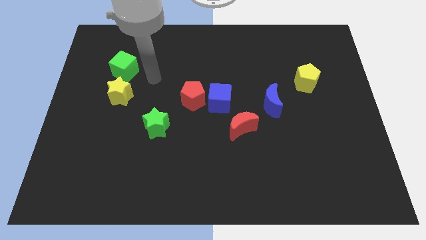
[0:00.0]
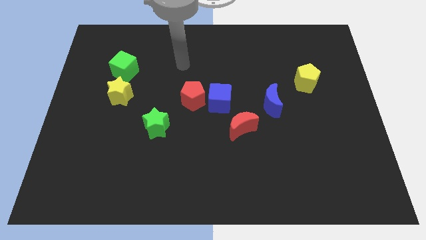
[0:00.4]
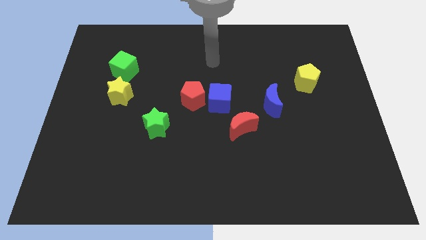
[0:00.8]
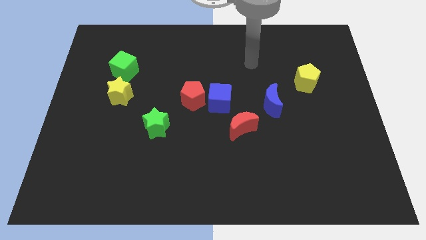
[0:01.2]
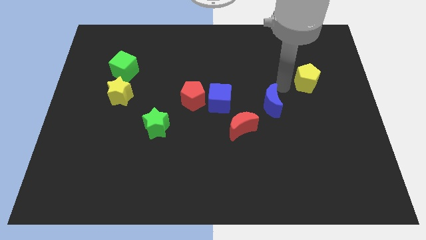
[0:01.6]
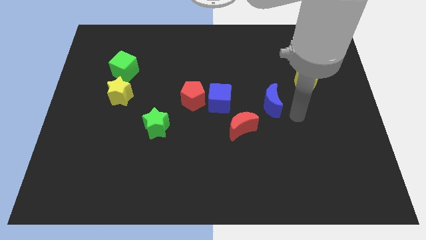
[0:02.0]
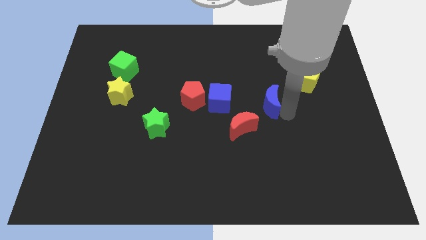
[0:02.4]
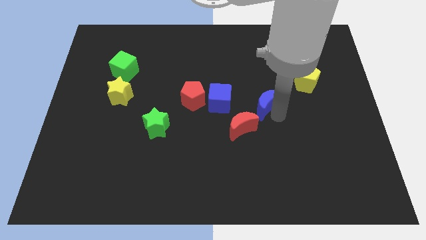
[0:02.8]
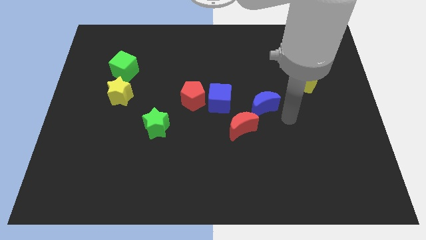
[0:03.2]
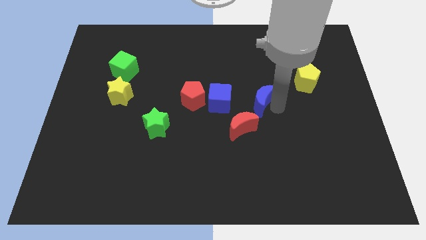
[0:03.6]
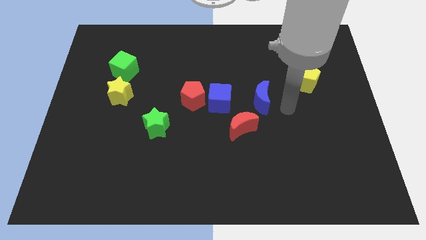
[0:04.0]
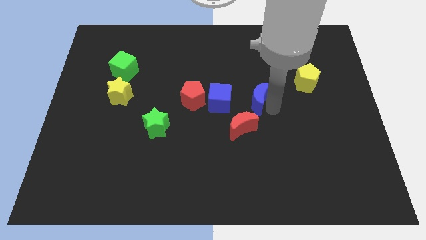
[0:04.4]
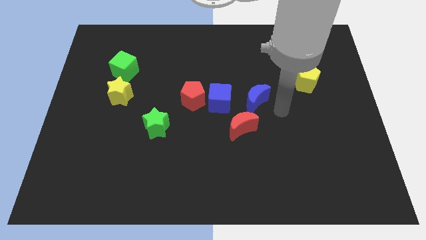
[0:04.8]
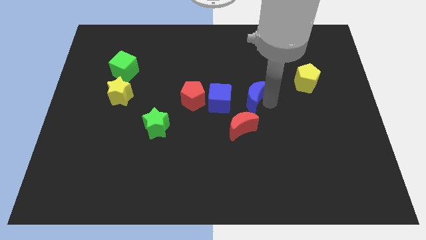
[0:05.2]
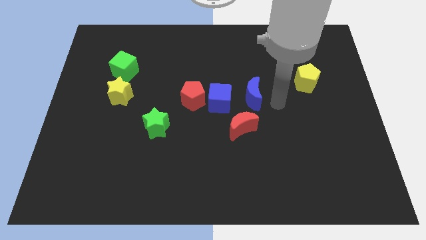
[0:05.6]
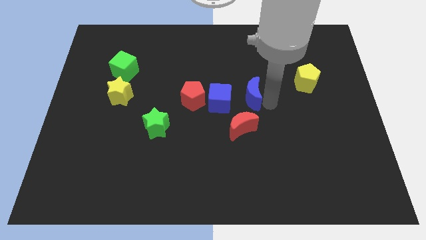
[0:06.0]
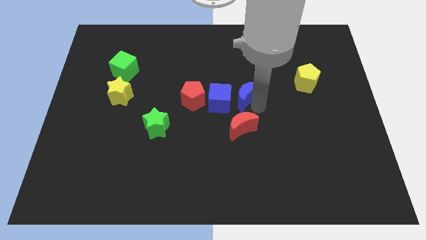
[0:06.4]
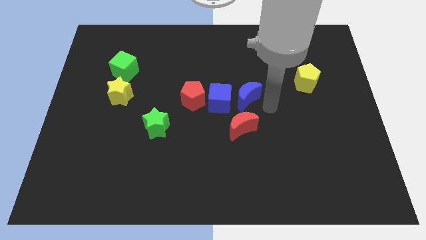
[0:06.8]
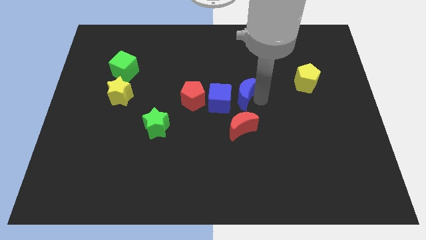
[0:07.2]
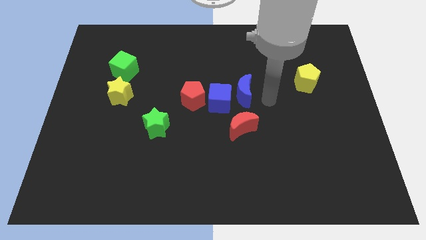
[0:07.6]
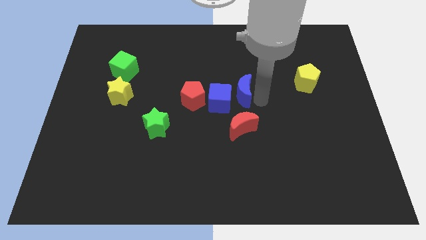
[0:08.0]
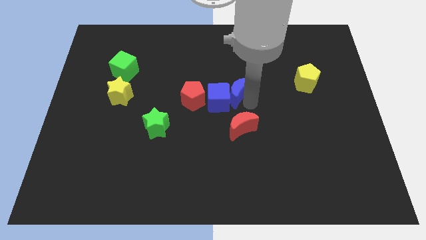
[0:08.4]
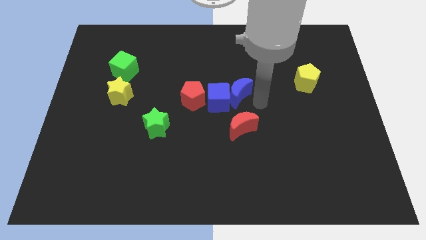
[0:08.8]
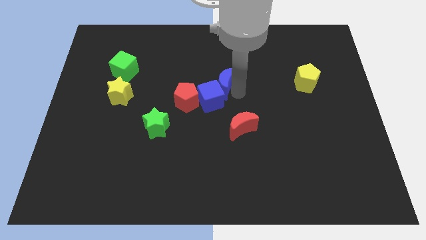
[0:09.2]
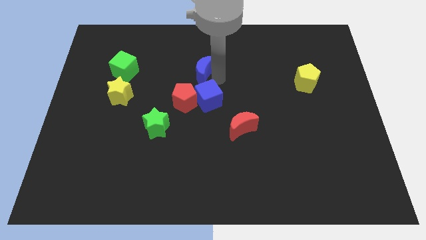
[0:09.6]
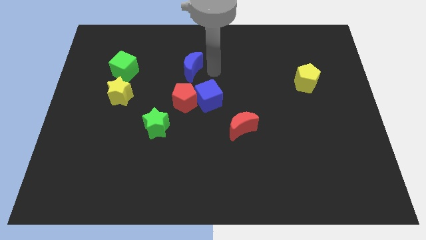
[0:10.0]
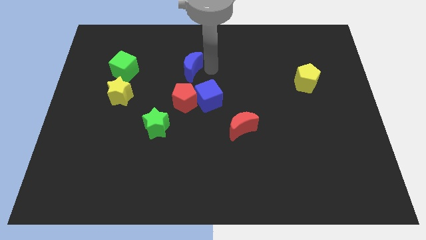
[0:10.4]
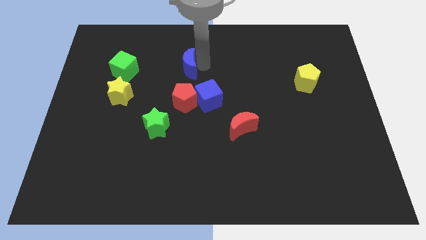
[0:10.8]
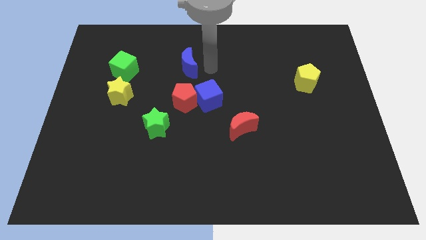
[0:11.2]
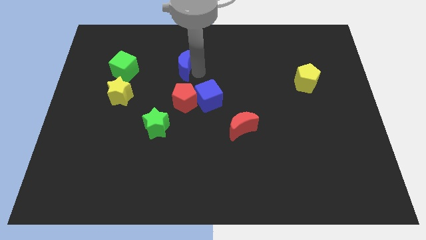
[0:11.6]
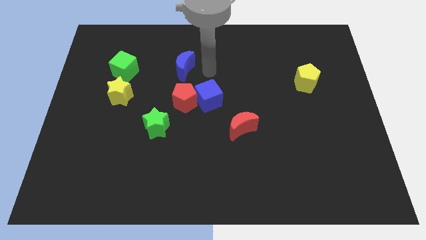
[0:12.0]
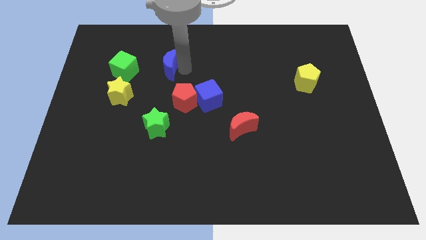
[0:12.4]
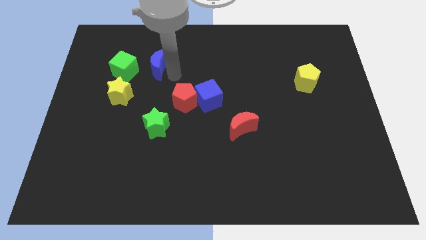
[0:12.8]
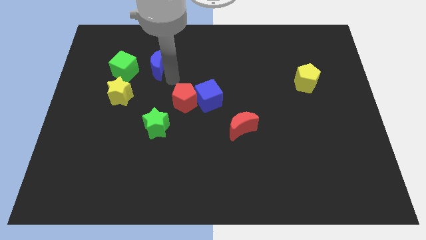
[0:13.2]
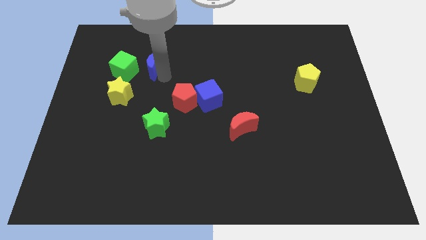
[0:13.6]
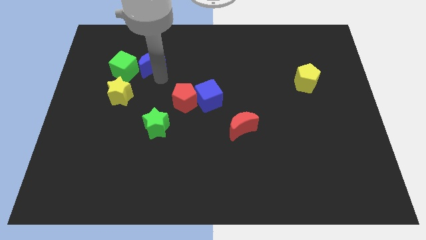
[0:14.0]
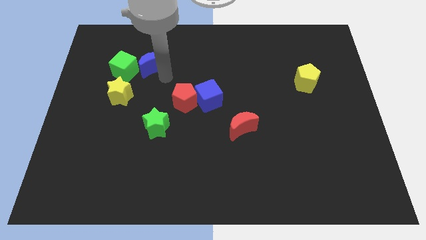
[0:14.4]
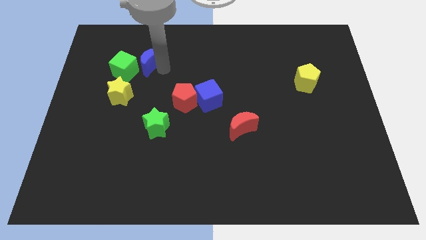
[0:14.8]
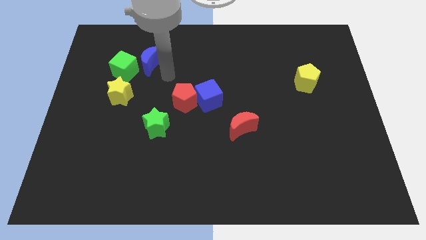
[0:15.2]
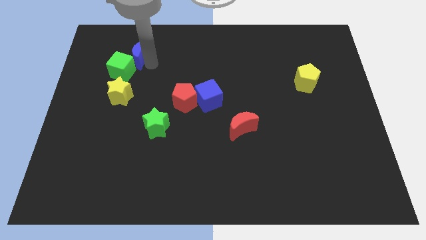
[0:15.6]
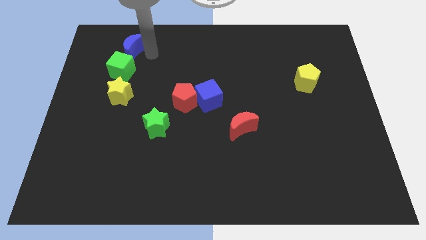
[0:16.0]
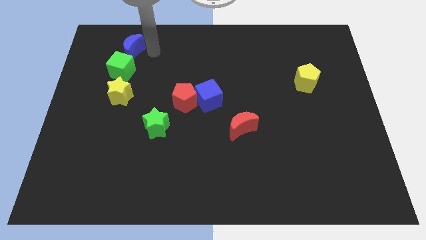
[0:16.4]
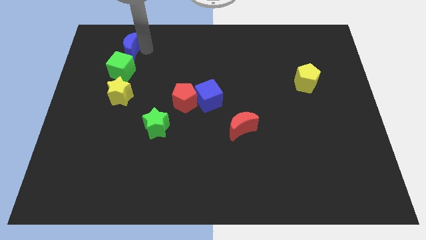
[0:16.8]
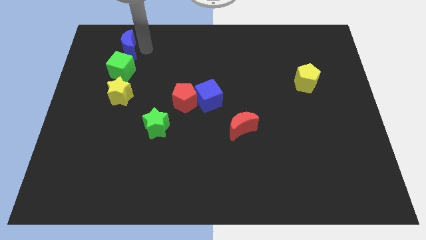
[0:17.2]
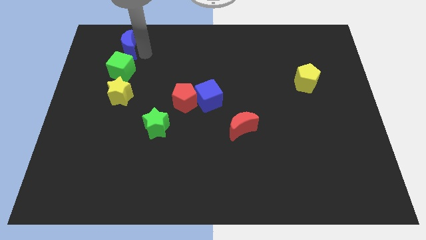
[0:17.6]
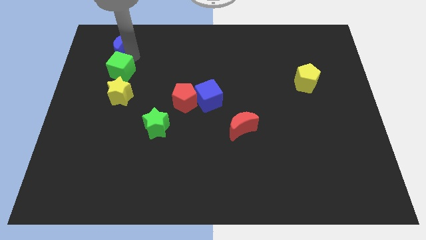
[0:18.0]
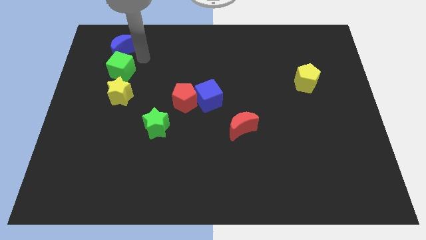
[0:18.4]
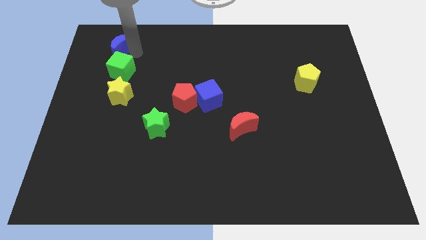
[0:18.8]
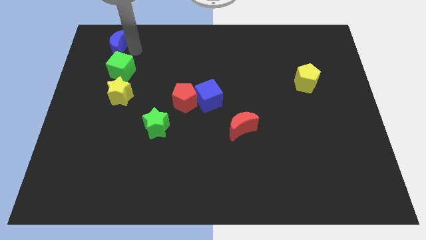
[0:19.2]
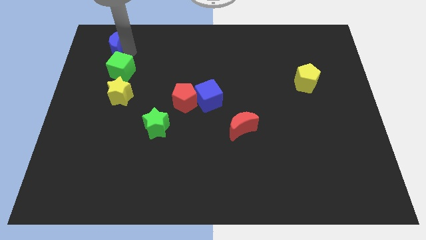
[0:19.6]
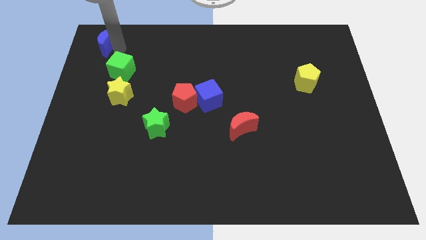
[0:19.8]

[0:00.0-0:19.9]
push the blue moon to the upper left corner

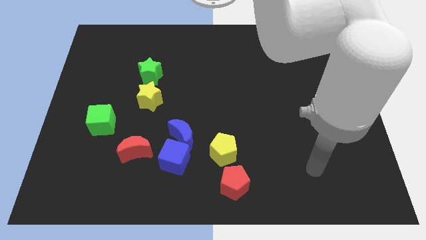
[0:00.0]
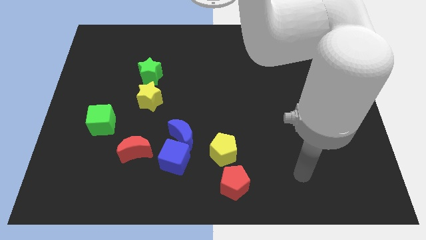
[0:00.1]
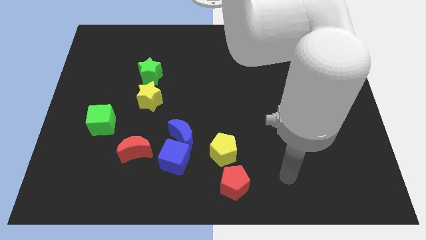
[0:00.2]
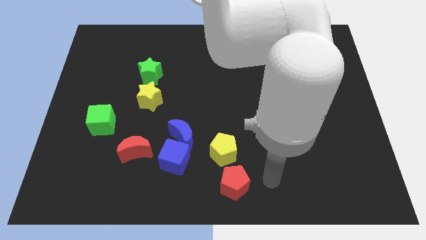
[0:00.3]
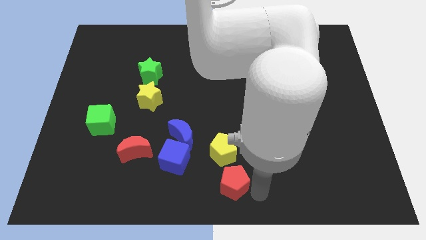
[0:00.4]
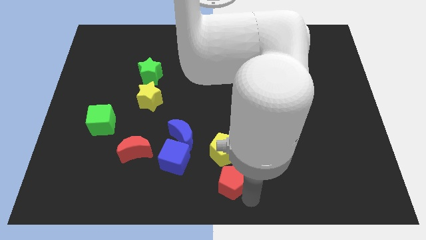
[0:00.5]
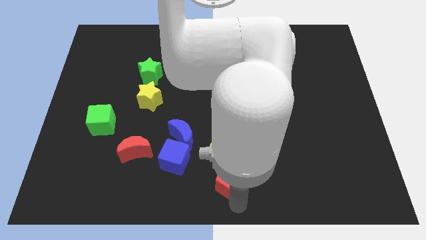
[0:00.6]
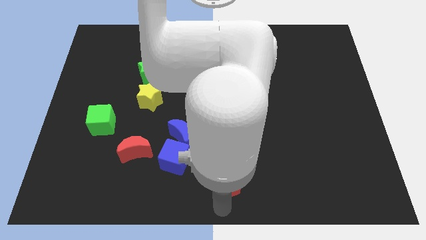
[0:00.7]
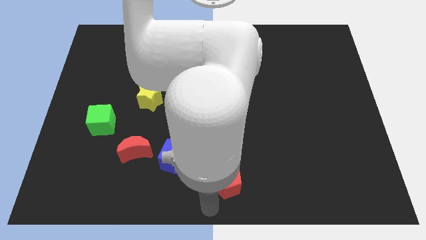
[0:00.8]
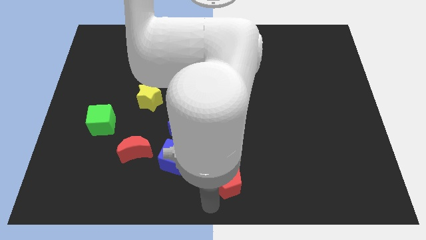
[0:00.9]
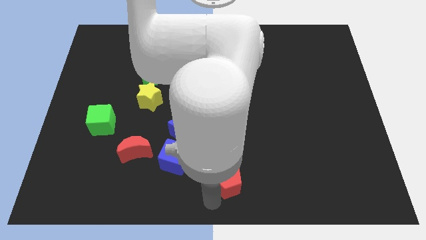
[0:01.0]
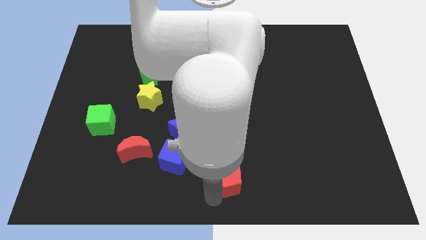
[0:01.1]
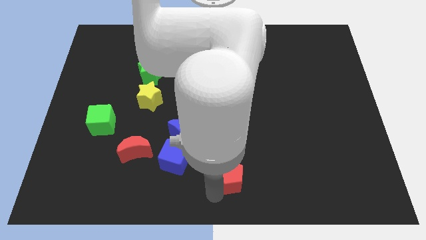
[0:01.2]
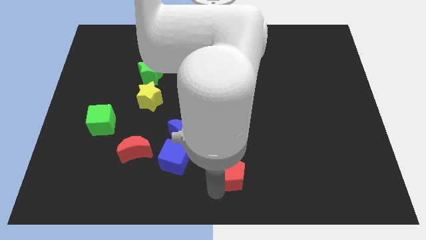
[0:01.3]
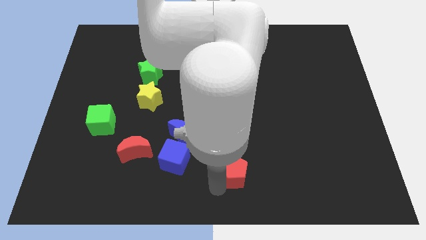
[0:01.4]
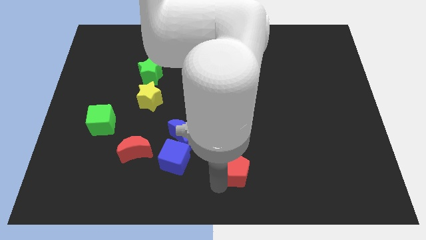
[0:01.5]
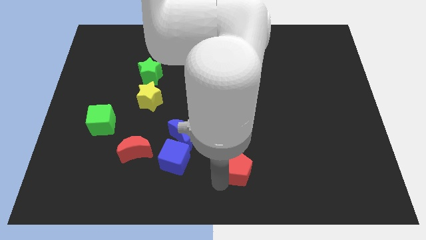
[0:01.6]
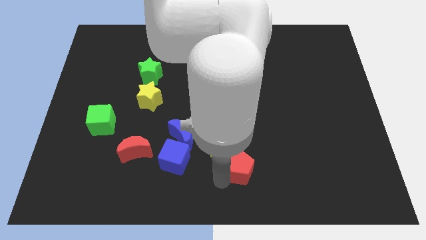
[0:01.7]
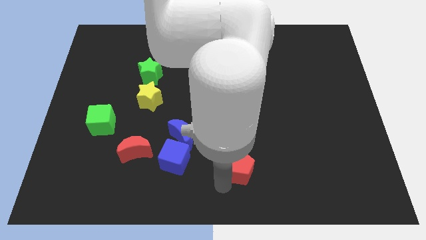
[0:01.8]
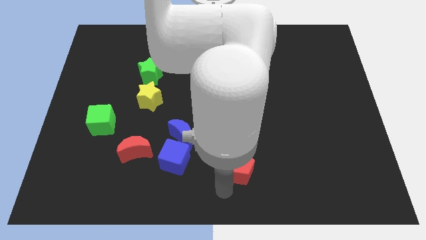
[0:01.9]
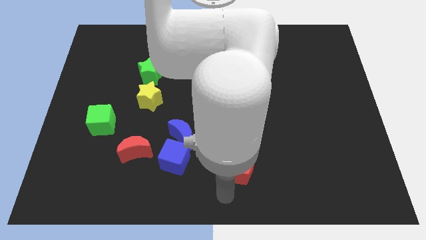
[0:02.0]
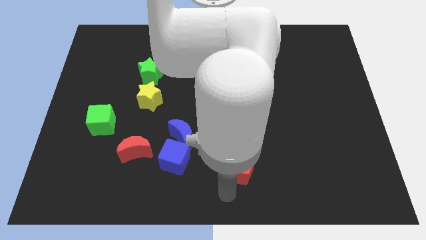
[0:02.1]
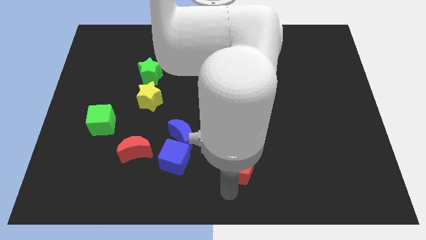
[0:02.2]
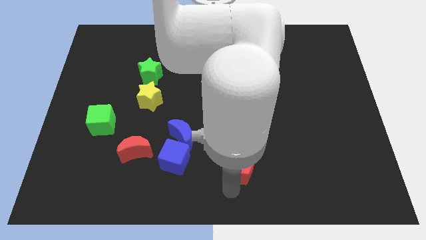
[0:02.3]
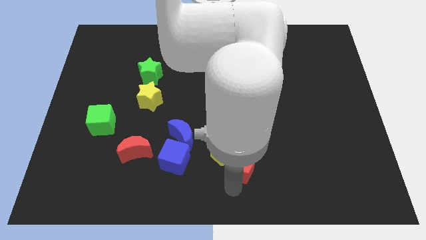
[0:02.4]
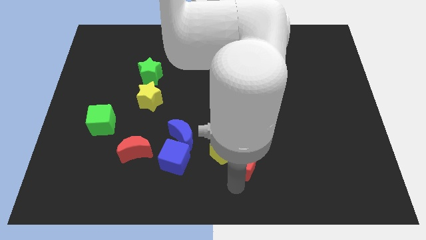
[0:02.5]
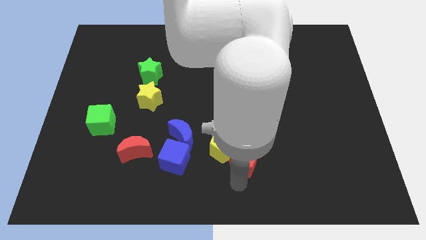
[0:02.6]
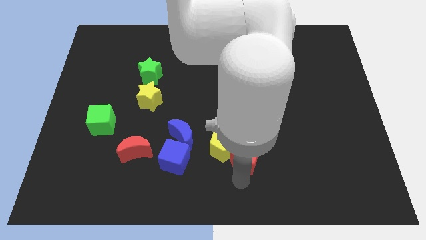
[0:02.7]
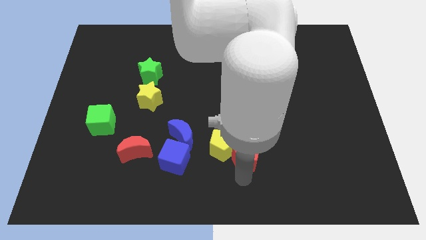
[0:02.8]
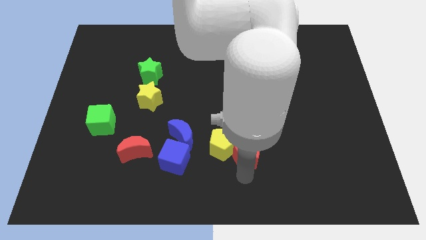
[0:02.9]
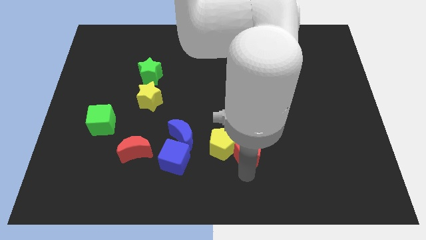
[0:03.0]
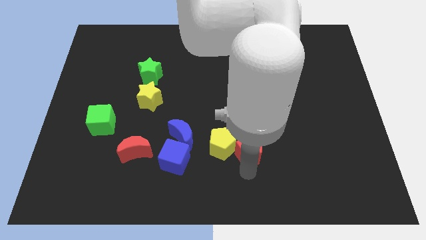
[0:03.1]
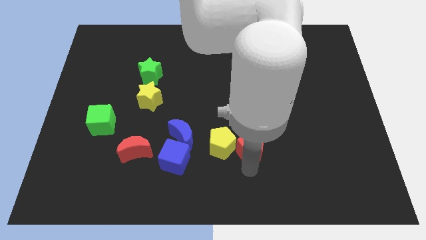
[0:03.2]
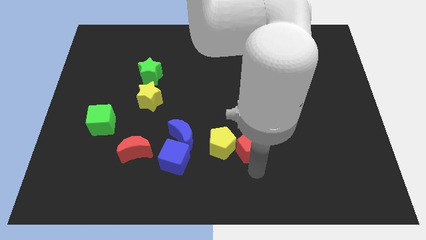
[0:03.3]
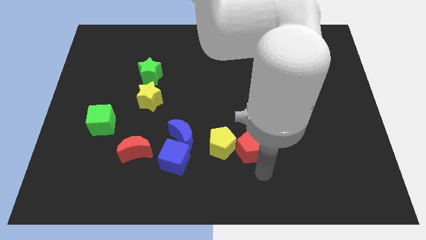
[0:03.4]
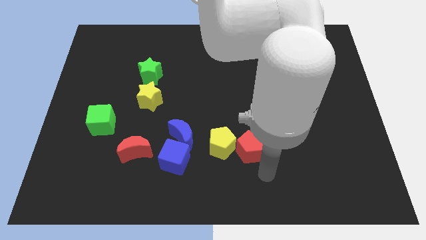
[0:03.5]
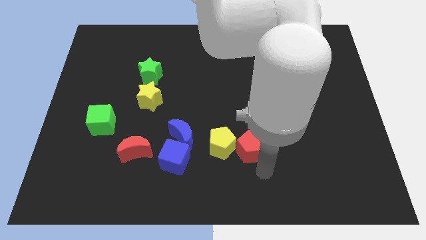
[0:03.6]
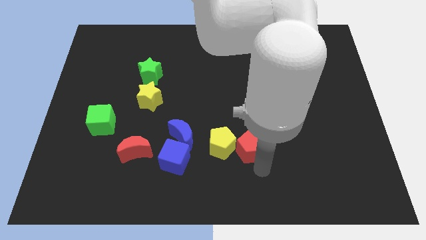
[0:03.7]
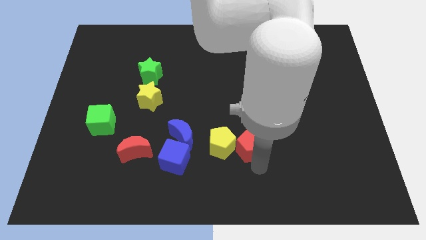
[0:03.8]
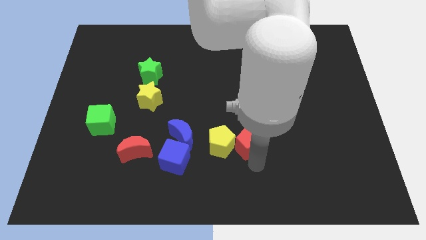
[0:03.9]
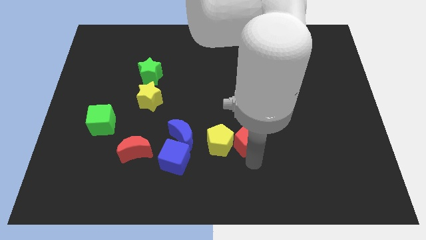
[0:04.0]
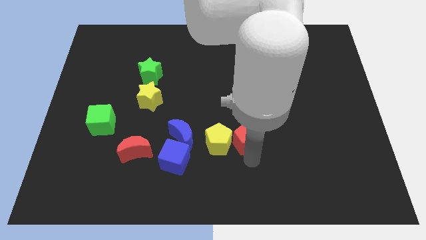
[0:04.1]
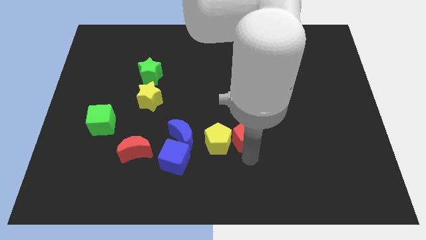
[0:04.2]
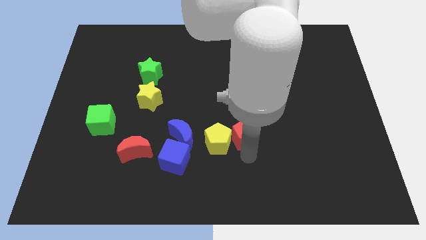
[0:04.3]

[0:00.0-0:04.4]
push the red pentagon to the middle of the board
